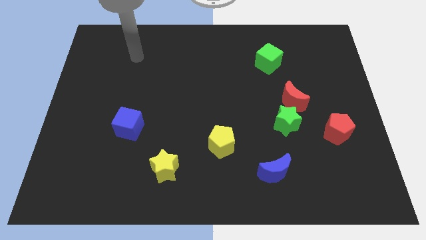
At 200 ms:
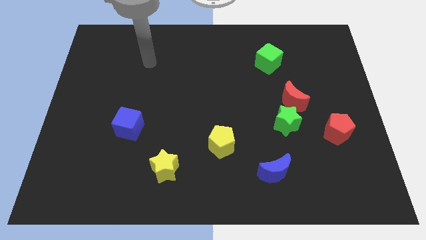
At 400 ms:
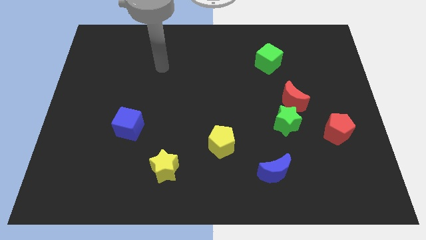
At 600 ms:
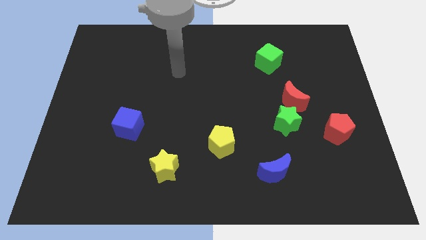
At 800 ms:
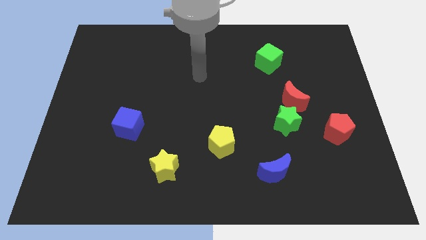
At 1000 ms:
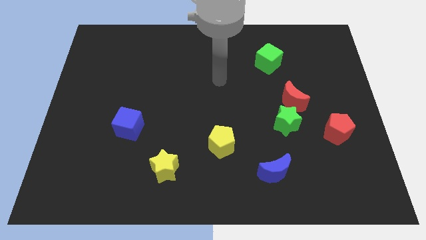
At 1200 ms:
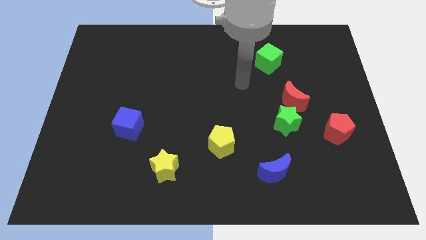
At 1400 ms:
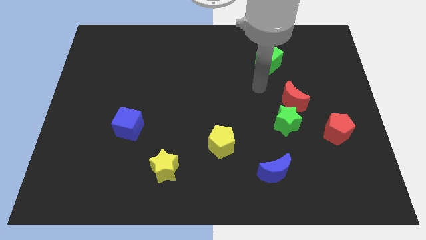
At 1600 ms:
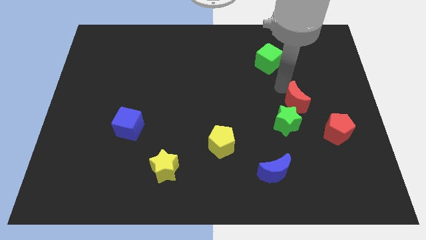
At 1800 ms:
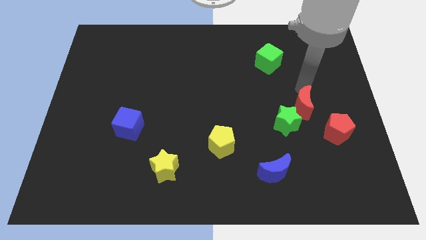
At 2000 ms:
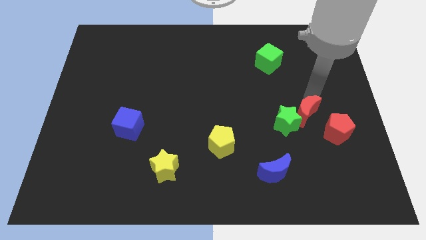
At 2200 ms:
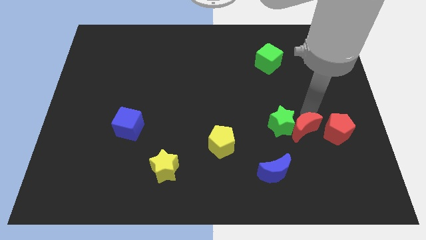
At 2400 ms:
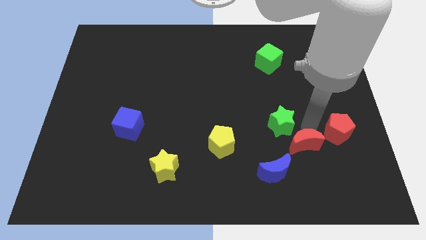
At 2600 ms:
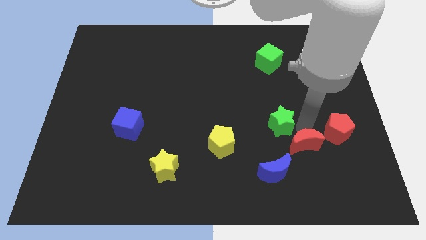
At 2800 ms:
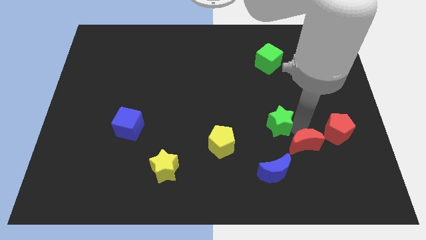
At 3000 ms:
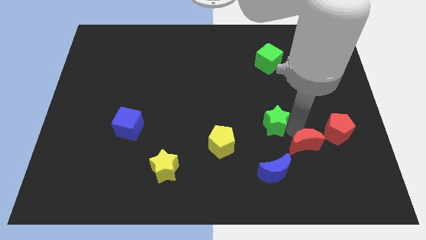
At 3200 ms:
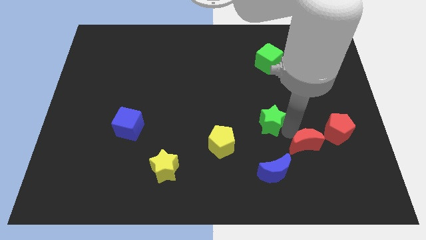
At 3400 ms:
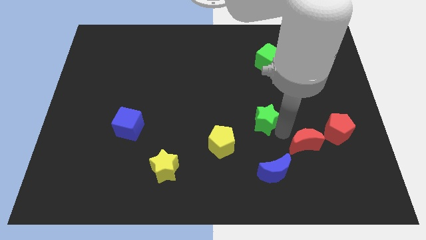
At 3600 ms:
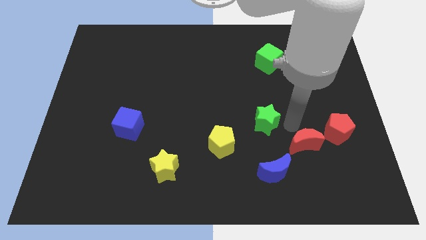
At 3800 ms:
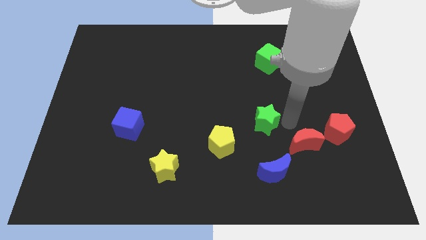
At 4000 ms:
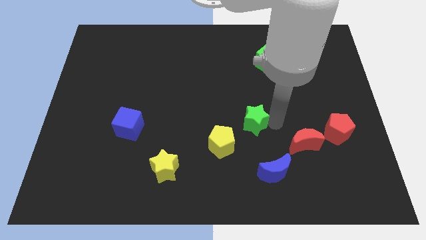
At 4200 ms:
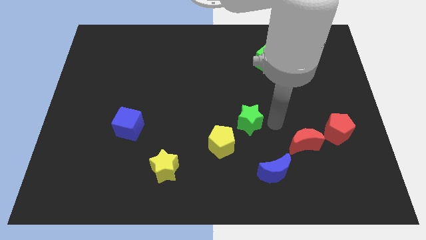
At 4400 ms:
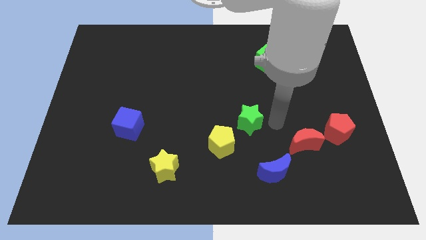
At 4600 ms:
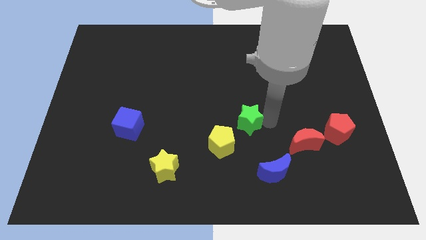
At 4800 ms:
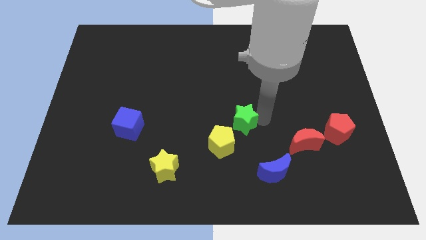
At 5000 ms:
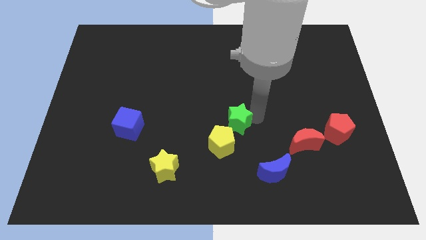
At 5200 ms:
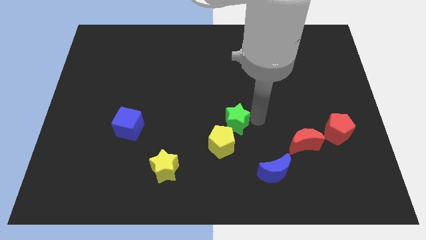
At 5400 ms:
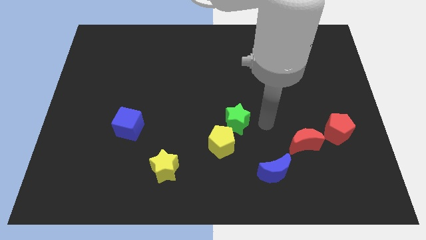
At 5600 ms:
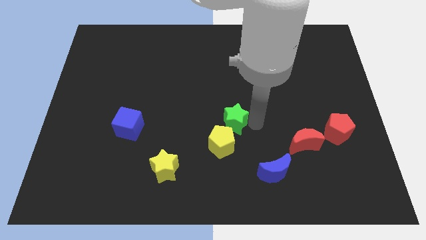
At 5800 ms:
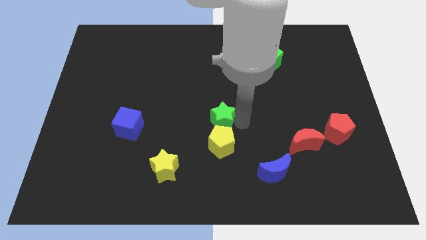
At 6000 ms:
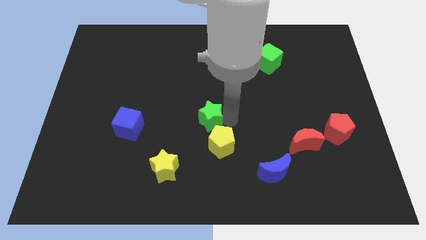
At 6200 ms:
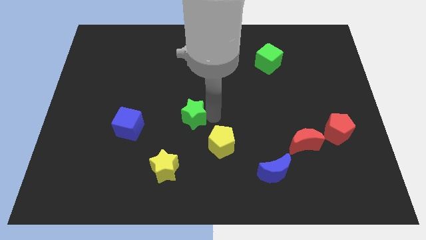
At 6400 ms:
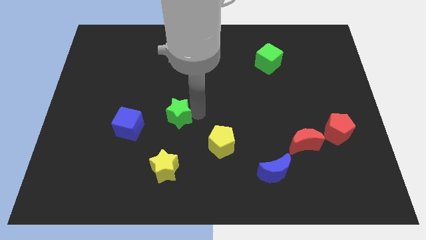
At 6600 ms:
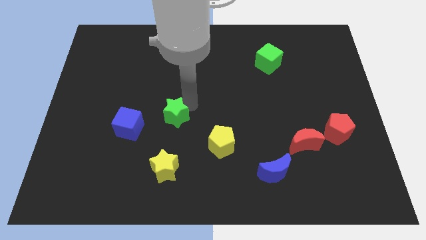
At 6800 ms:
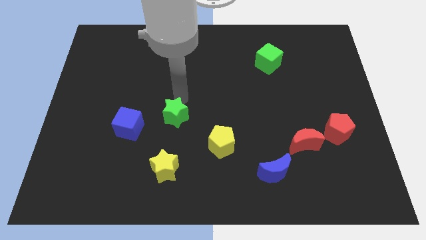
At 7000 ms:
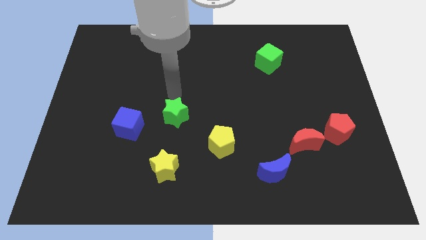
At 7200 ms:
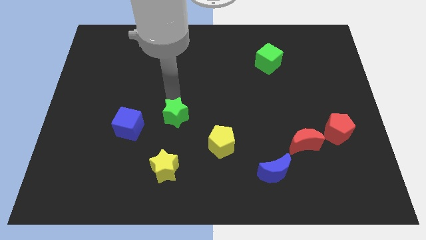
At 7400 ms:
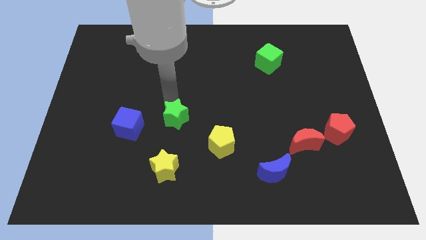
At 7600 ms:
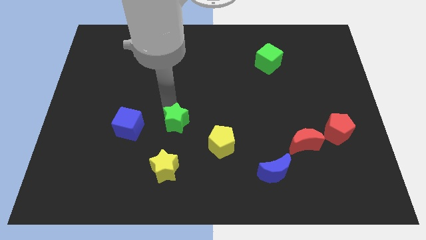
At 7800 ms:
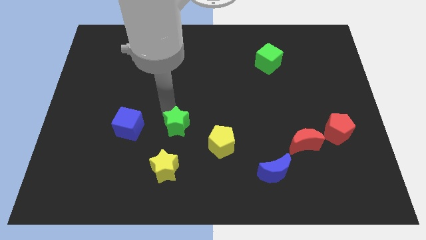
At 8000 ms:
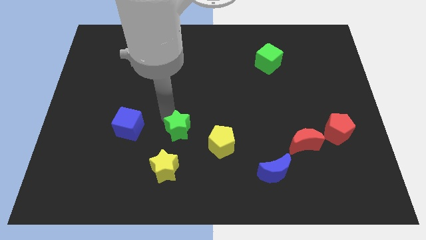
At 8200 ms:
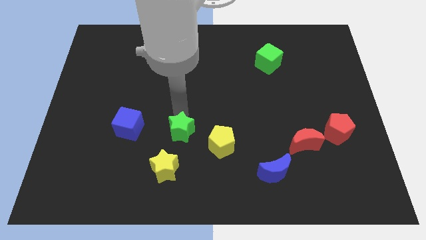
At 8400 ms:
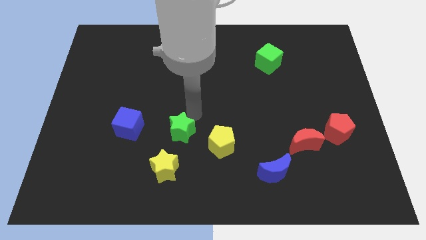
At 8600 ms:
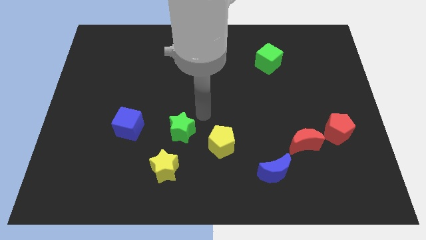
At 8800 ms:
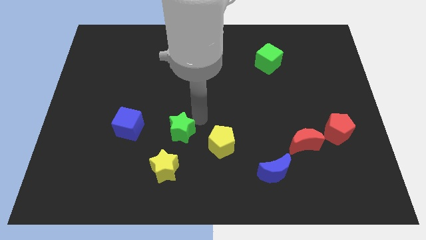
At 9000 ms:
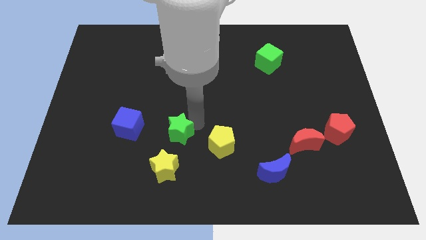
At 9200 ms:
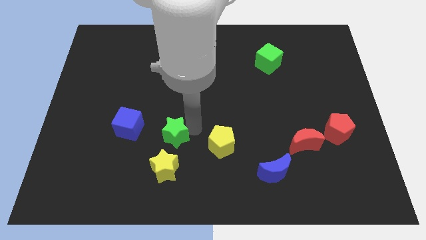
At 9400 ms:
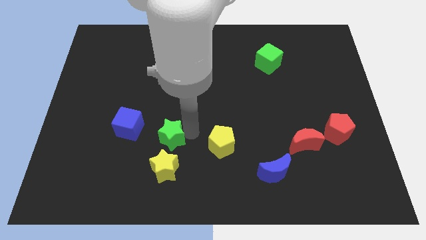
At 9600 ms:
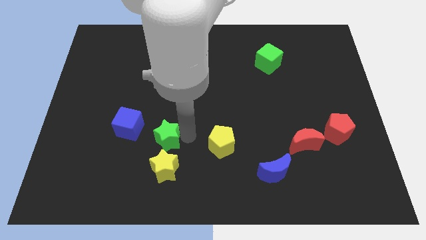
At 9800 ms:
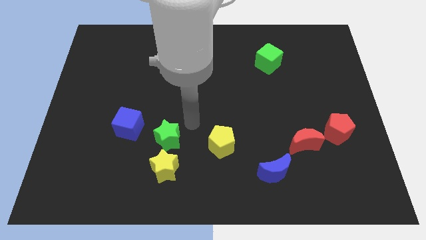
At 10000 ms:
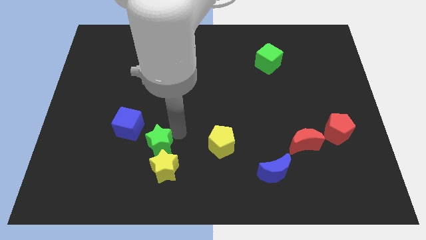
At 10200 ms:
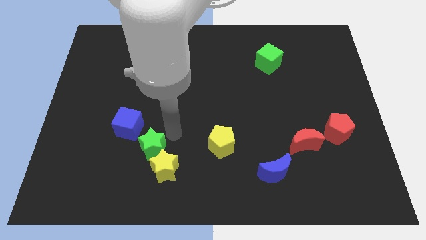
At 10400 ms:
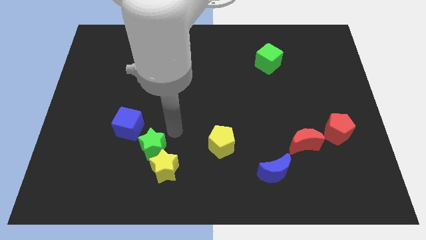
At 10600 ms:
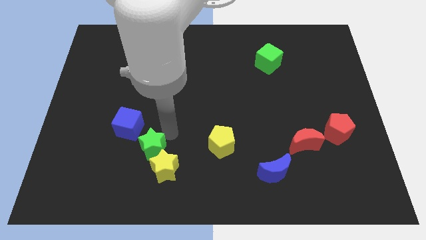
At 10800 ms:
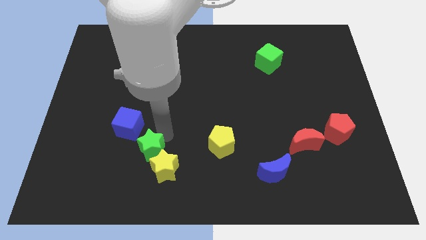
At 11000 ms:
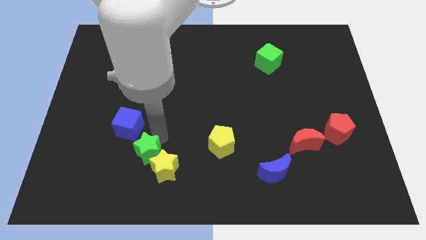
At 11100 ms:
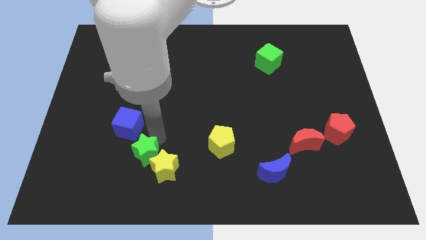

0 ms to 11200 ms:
put the green star below the blue cube

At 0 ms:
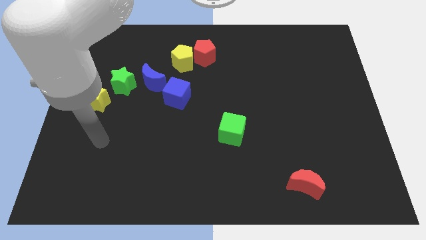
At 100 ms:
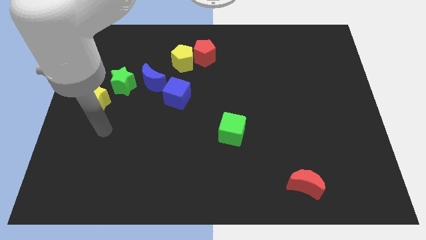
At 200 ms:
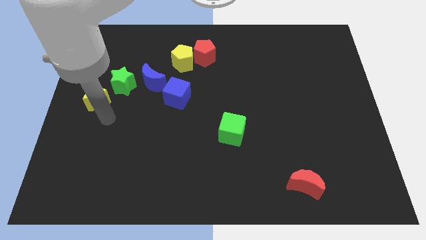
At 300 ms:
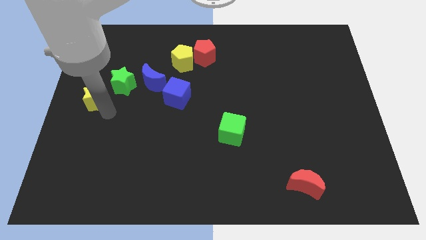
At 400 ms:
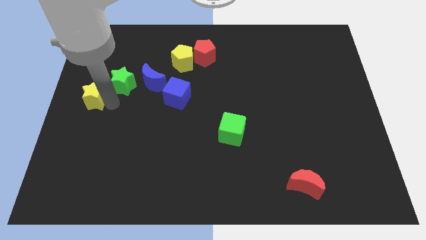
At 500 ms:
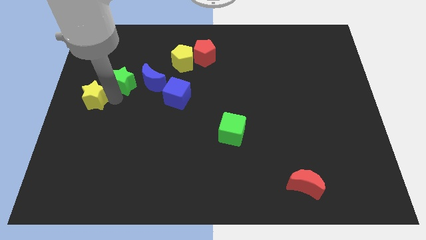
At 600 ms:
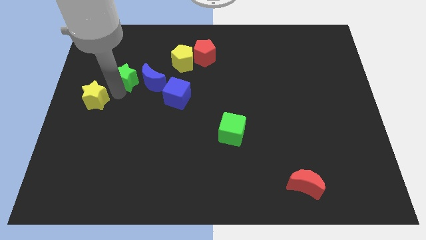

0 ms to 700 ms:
move the green star diagonally up and to the left of the blue moon

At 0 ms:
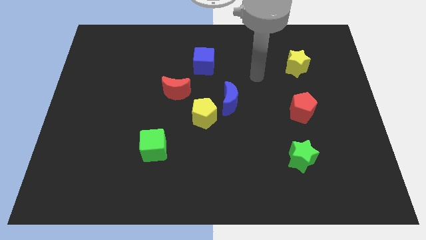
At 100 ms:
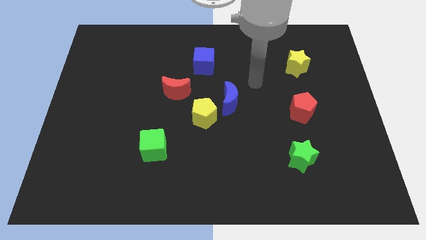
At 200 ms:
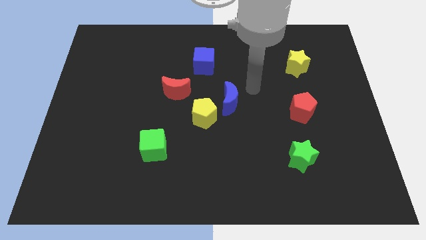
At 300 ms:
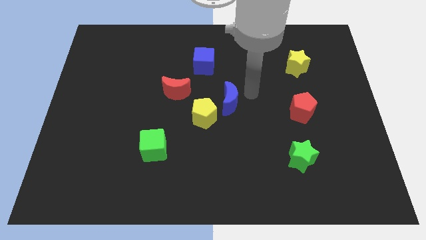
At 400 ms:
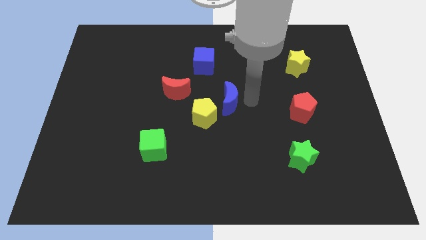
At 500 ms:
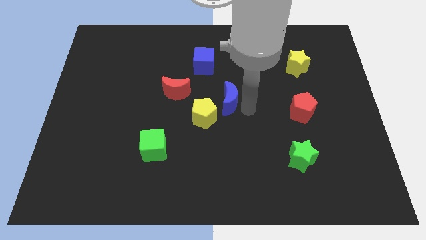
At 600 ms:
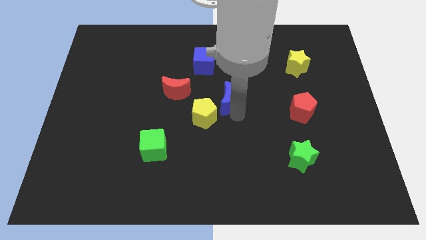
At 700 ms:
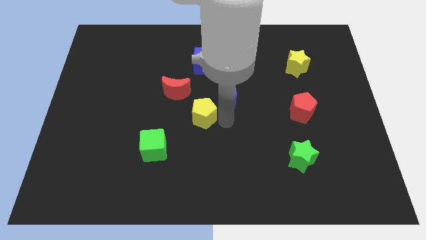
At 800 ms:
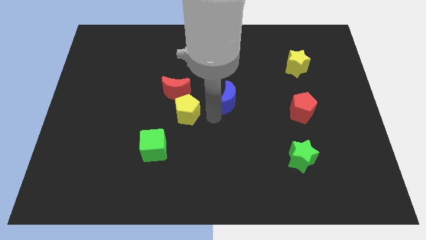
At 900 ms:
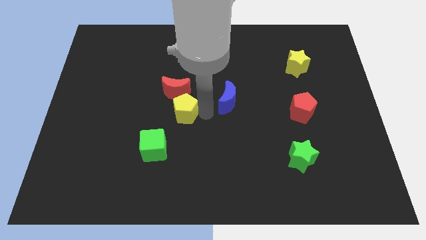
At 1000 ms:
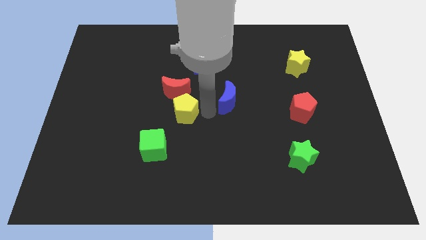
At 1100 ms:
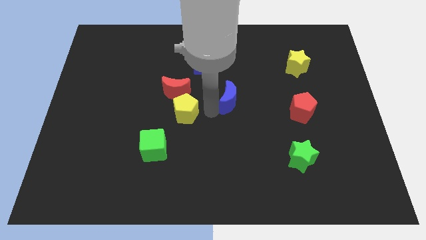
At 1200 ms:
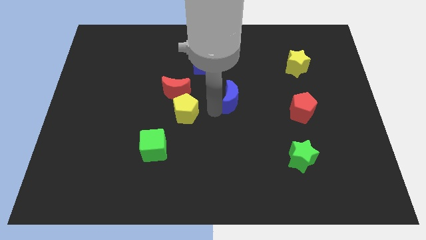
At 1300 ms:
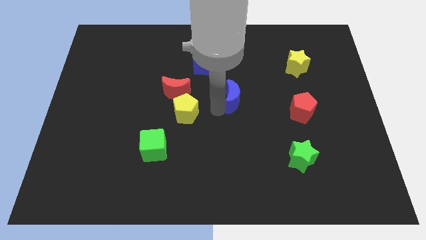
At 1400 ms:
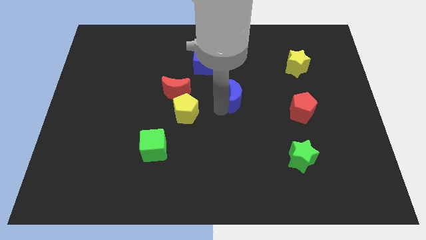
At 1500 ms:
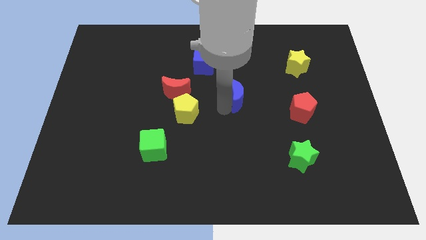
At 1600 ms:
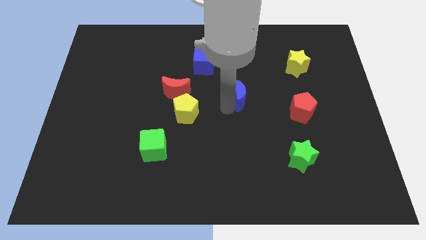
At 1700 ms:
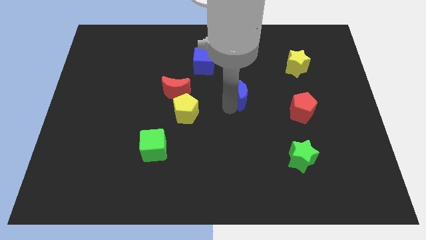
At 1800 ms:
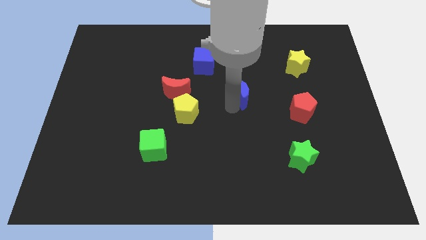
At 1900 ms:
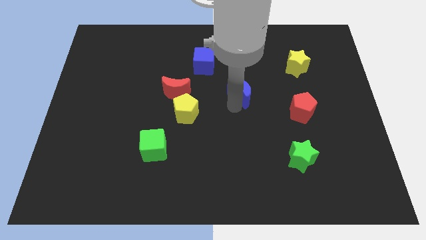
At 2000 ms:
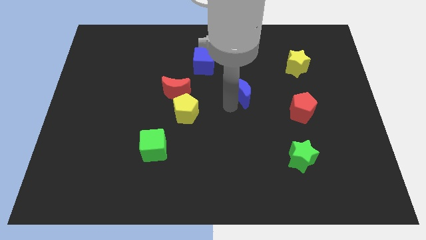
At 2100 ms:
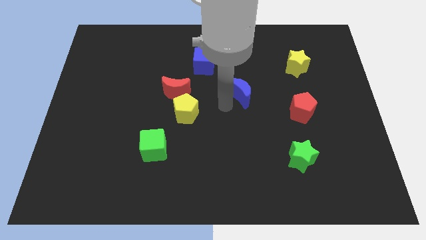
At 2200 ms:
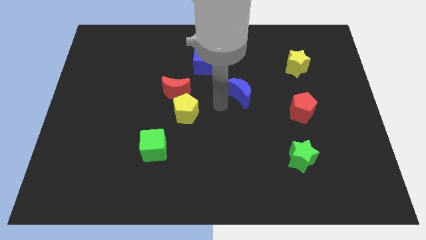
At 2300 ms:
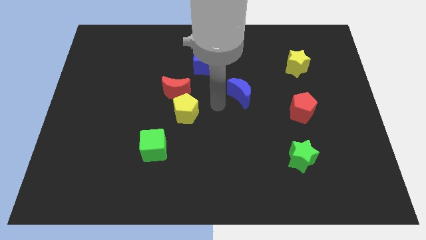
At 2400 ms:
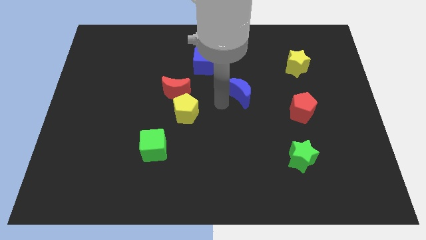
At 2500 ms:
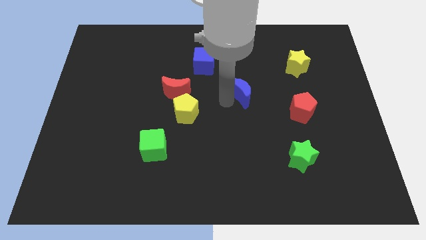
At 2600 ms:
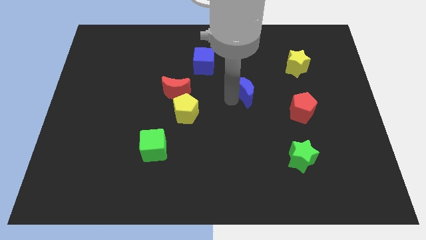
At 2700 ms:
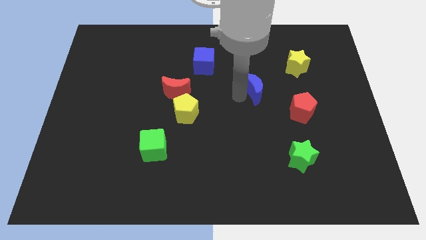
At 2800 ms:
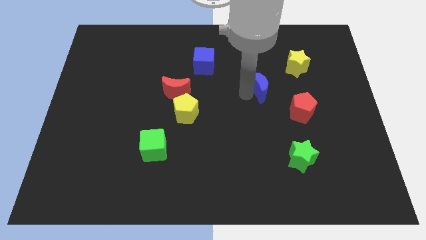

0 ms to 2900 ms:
slide the blue moon to the bottom left of the yellow star
